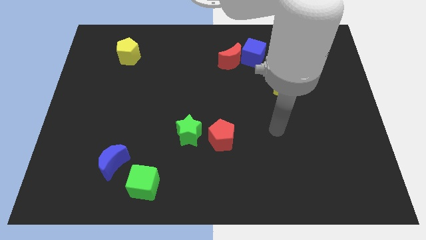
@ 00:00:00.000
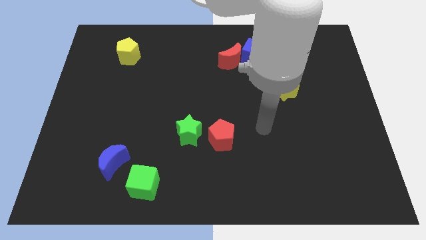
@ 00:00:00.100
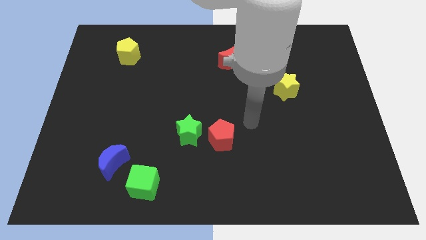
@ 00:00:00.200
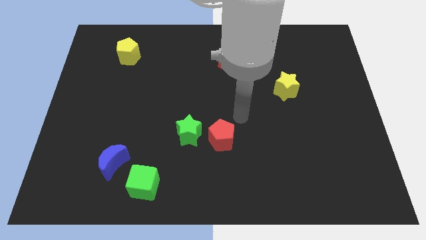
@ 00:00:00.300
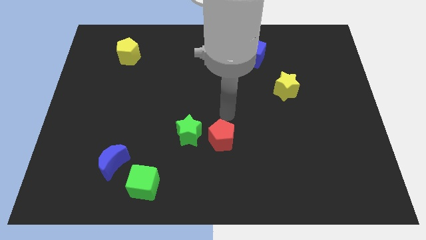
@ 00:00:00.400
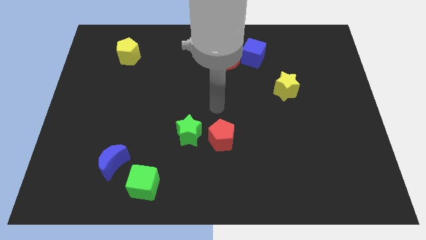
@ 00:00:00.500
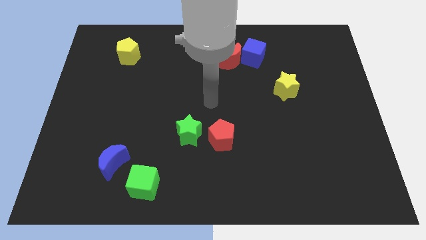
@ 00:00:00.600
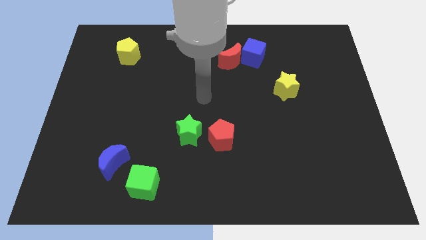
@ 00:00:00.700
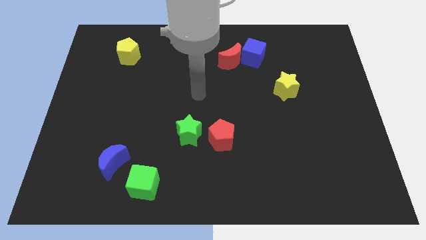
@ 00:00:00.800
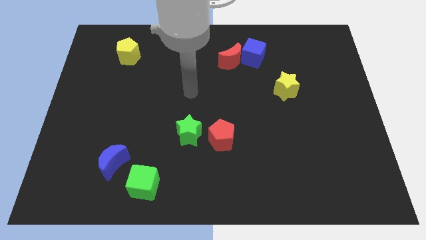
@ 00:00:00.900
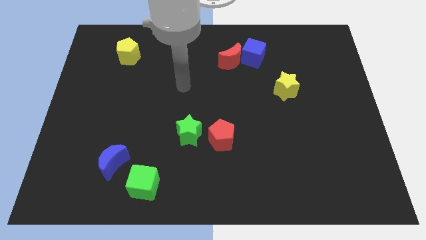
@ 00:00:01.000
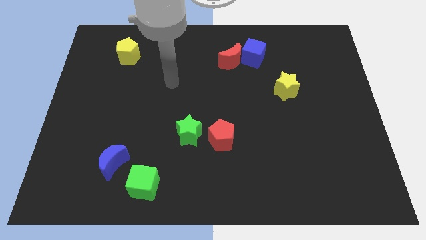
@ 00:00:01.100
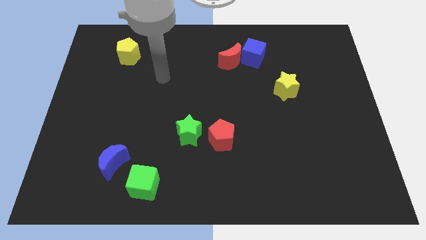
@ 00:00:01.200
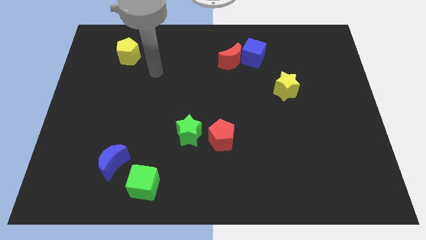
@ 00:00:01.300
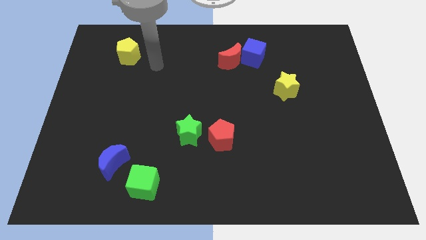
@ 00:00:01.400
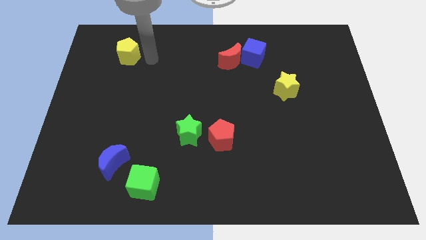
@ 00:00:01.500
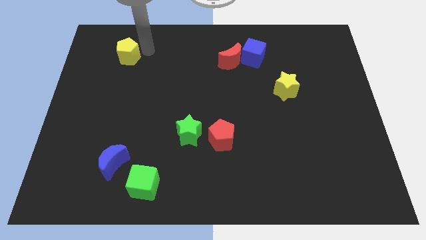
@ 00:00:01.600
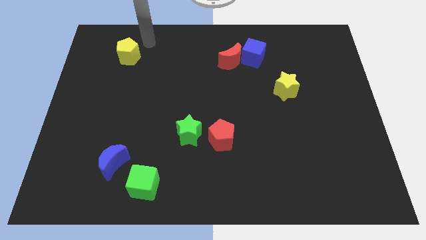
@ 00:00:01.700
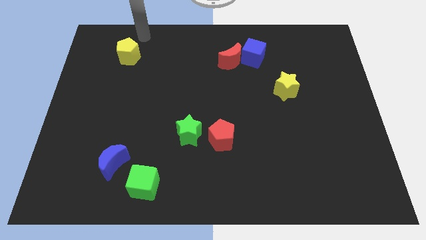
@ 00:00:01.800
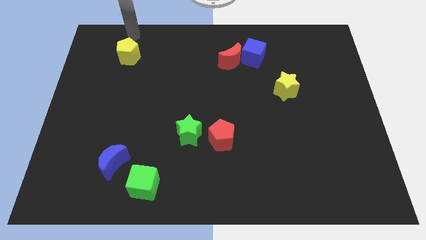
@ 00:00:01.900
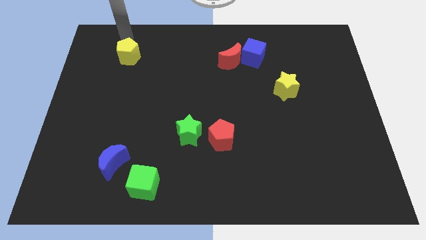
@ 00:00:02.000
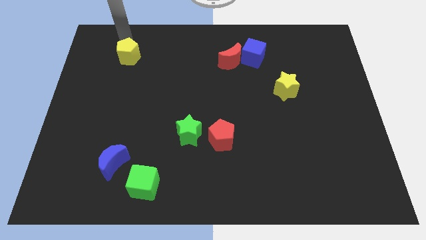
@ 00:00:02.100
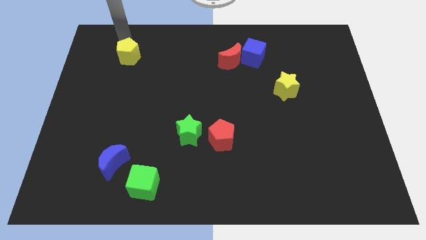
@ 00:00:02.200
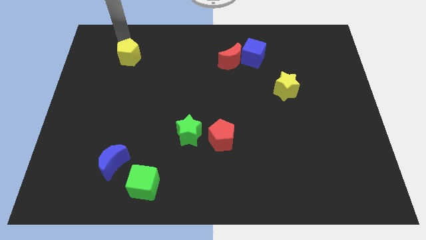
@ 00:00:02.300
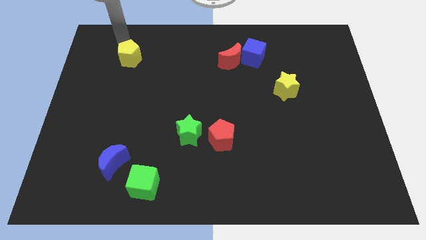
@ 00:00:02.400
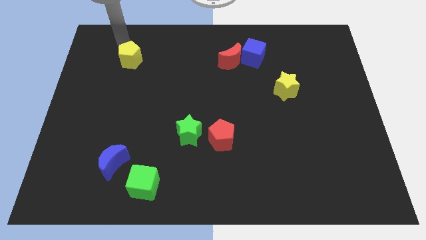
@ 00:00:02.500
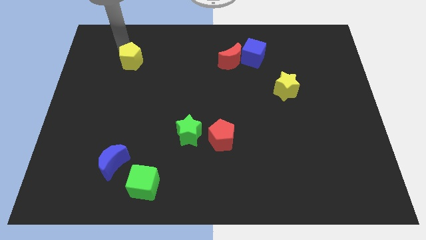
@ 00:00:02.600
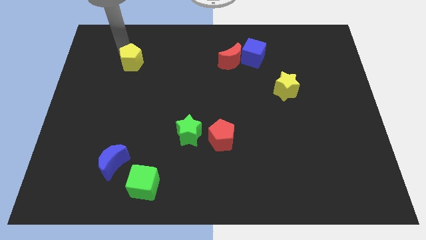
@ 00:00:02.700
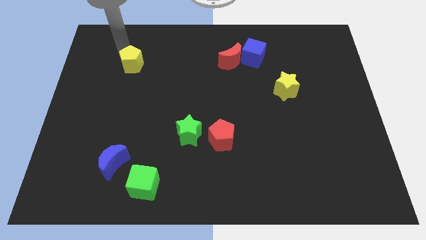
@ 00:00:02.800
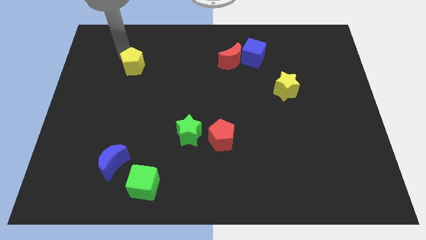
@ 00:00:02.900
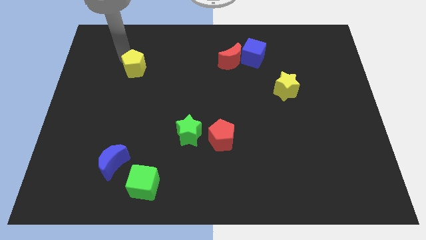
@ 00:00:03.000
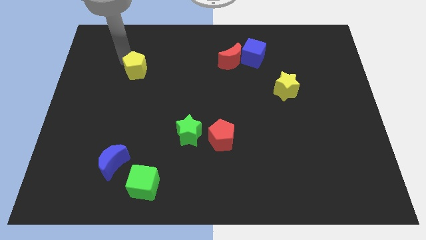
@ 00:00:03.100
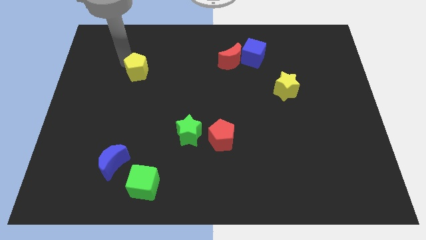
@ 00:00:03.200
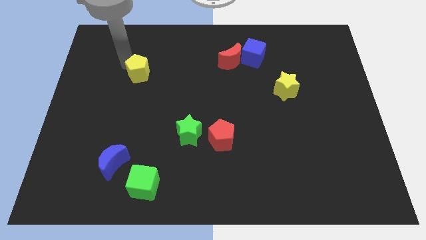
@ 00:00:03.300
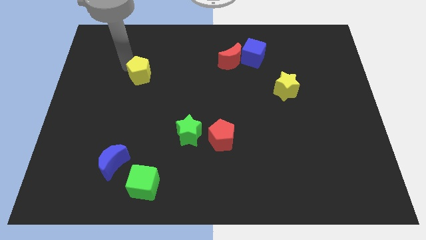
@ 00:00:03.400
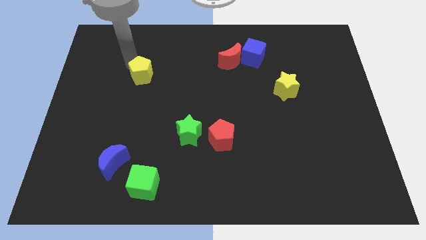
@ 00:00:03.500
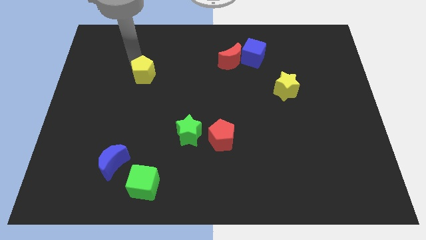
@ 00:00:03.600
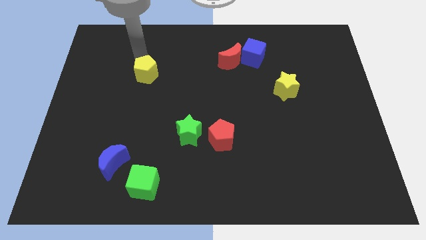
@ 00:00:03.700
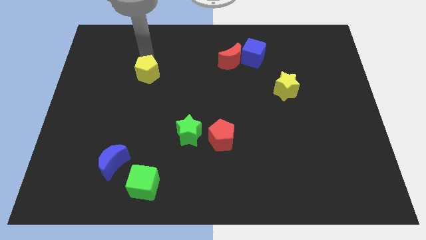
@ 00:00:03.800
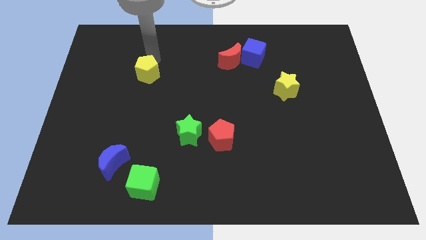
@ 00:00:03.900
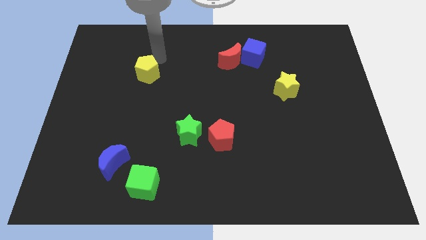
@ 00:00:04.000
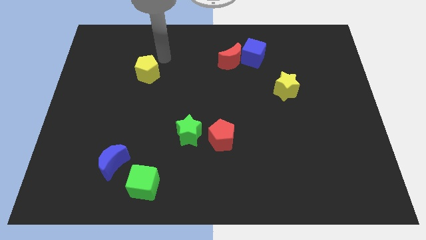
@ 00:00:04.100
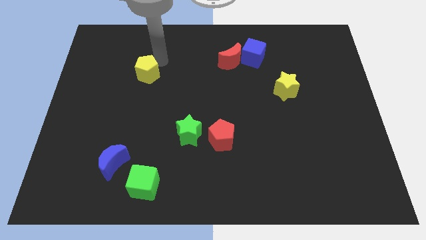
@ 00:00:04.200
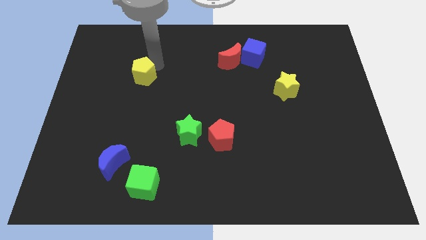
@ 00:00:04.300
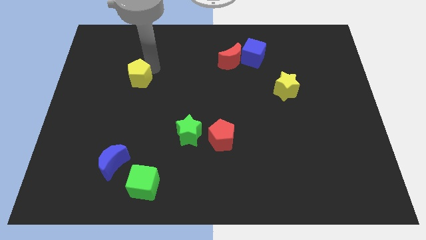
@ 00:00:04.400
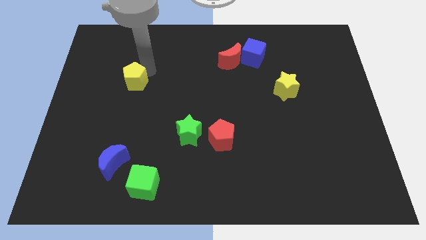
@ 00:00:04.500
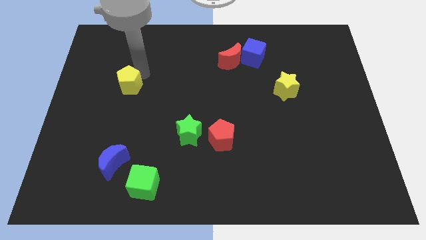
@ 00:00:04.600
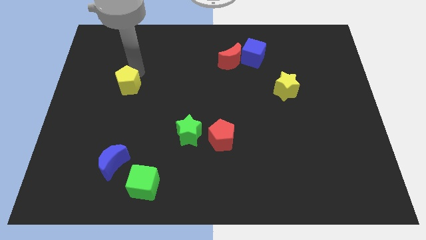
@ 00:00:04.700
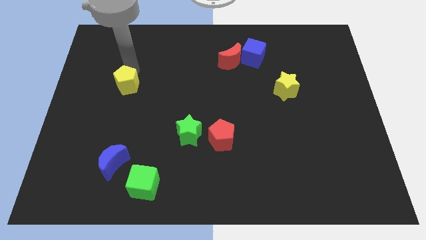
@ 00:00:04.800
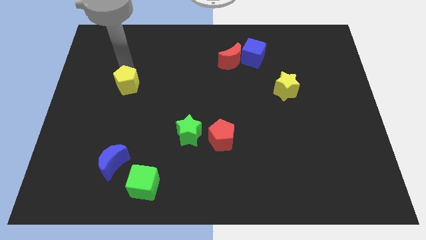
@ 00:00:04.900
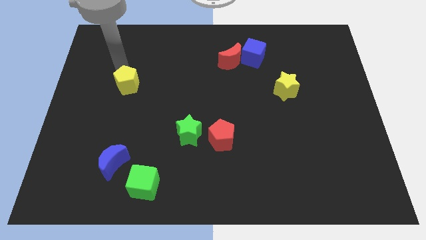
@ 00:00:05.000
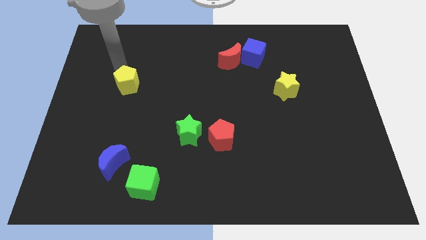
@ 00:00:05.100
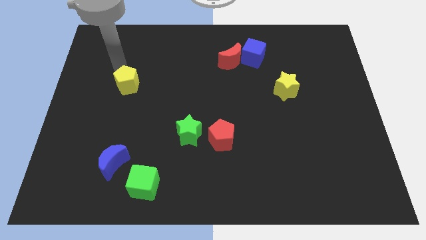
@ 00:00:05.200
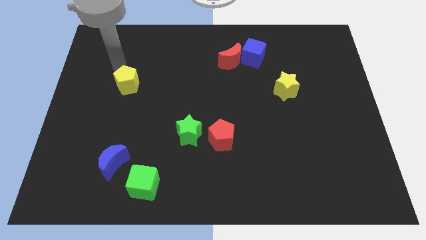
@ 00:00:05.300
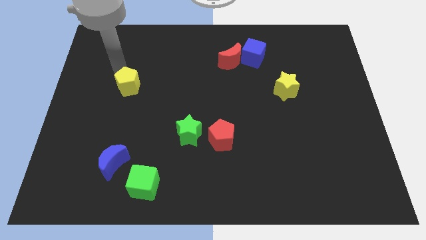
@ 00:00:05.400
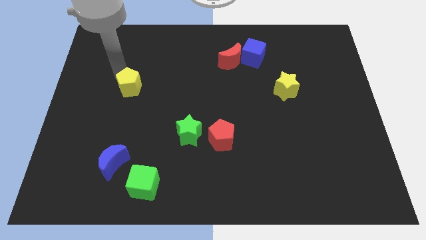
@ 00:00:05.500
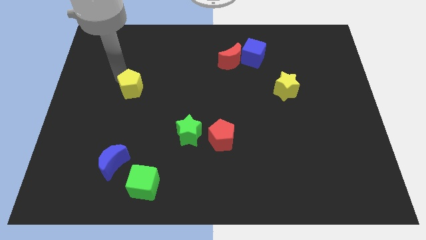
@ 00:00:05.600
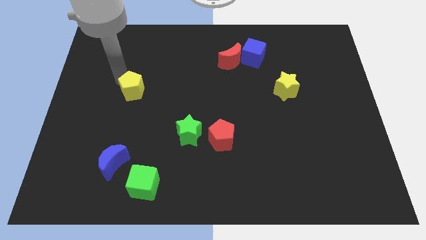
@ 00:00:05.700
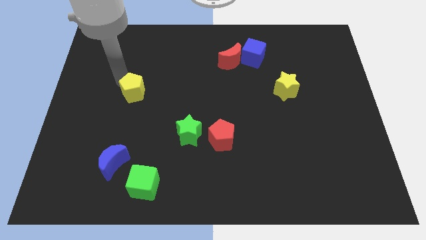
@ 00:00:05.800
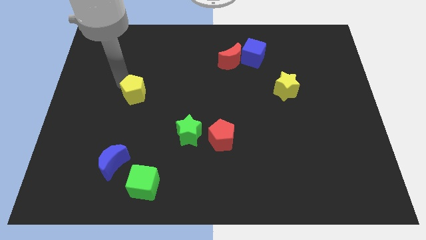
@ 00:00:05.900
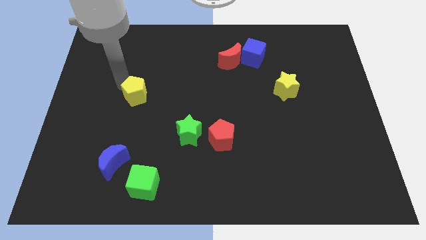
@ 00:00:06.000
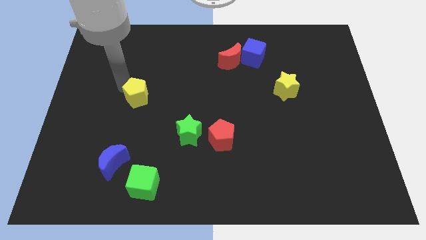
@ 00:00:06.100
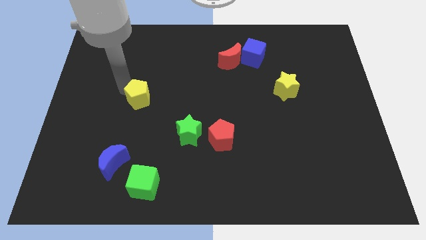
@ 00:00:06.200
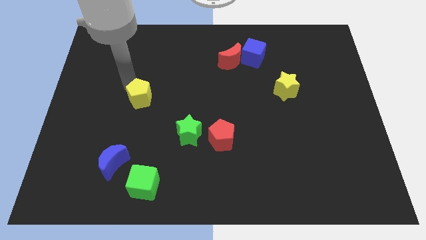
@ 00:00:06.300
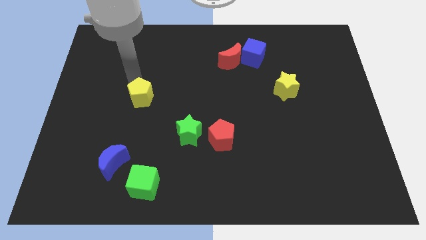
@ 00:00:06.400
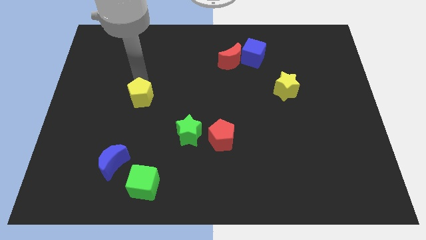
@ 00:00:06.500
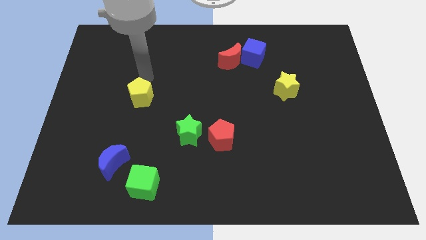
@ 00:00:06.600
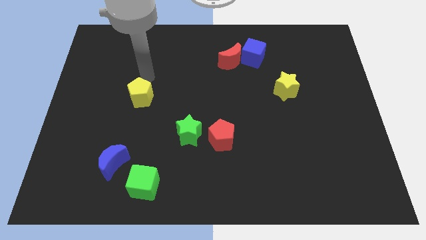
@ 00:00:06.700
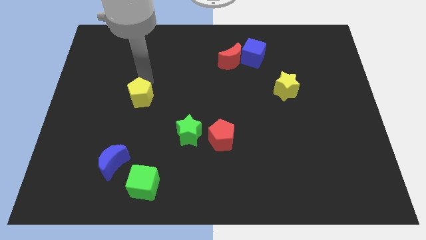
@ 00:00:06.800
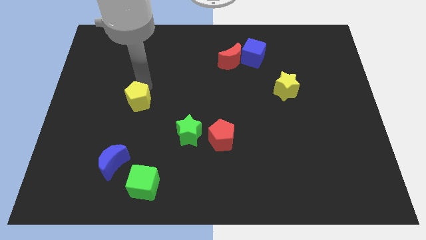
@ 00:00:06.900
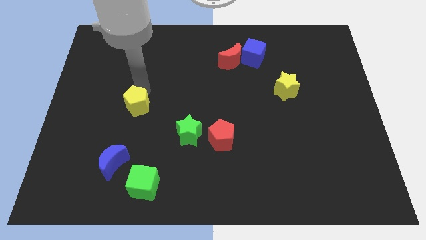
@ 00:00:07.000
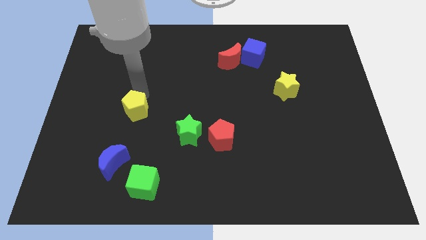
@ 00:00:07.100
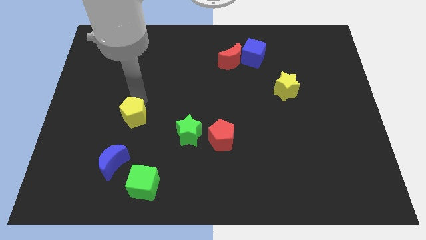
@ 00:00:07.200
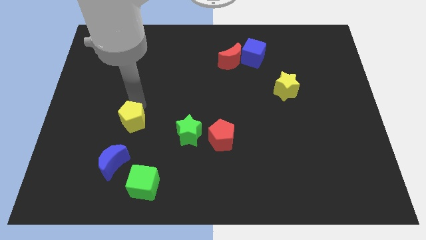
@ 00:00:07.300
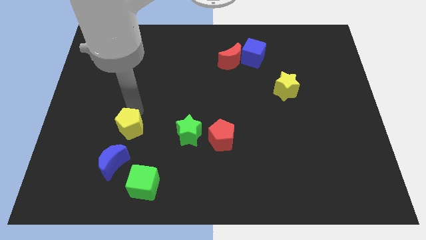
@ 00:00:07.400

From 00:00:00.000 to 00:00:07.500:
push the yellow pentagon to the top right of the blue moon
